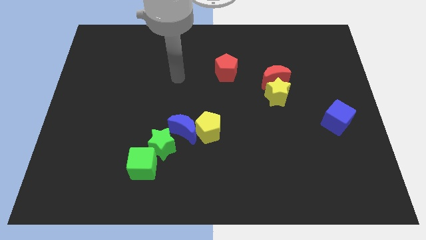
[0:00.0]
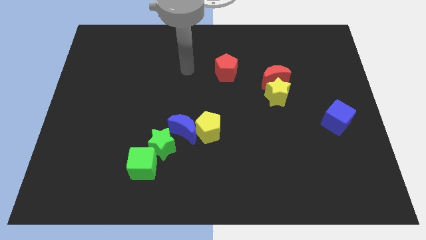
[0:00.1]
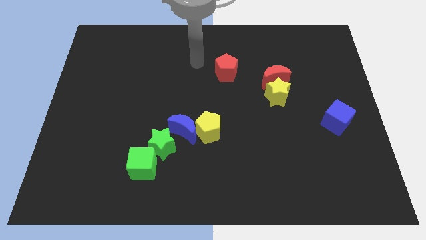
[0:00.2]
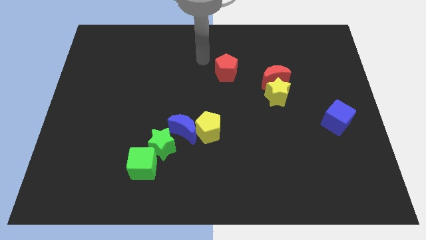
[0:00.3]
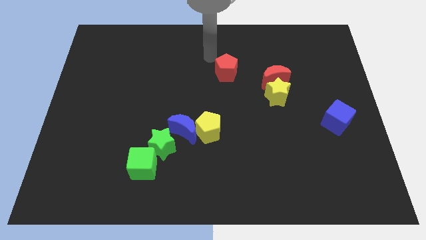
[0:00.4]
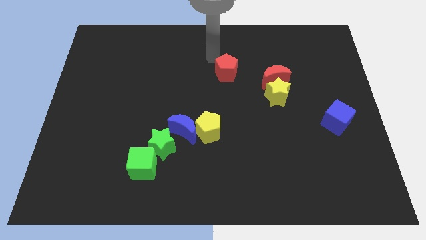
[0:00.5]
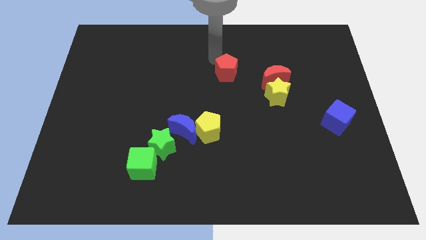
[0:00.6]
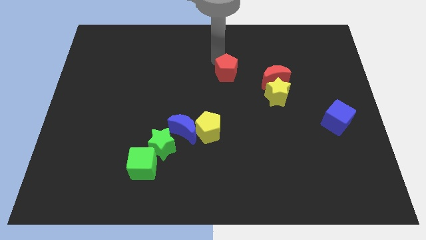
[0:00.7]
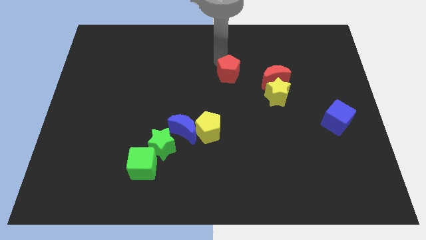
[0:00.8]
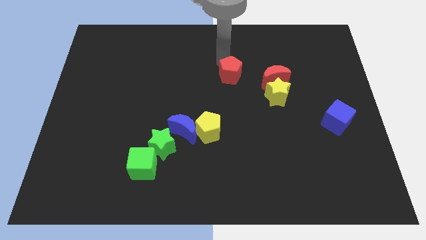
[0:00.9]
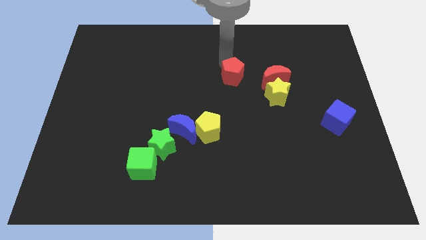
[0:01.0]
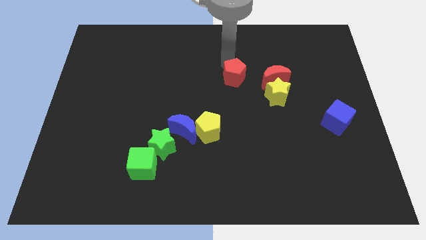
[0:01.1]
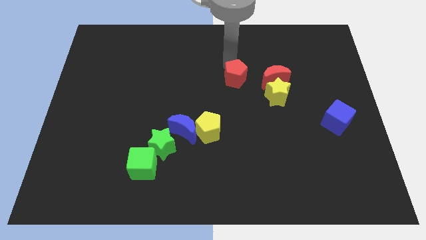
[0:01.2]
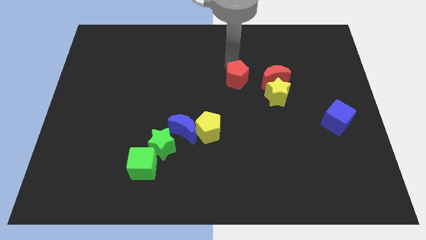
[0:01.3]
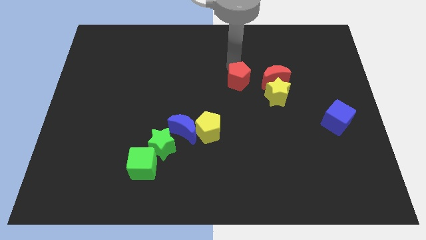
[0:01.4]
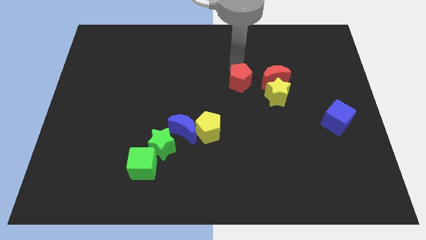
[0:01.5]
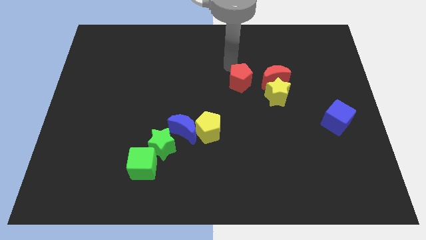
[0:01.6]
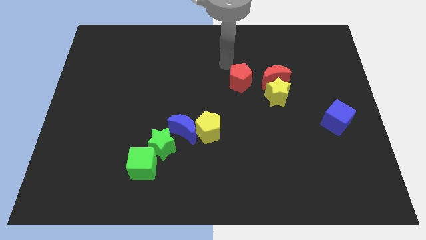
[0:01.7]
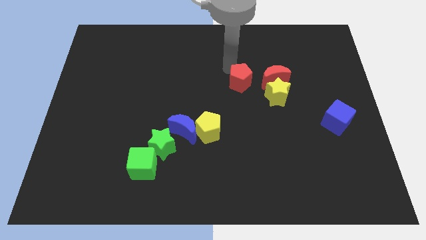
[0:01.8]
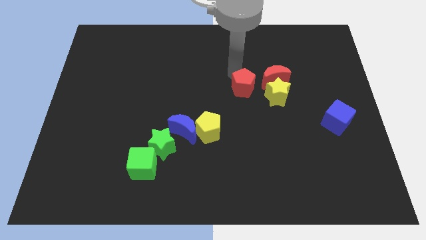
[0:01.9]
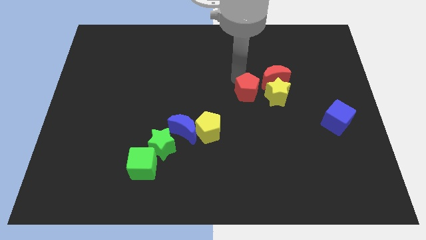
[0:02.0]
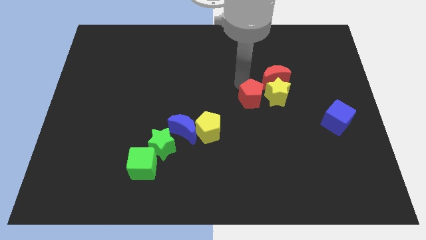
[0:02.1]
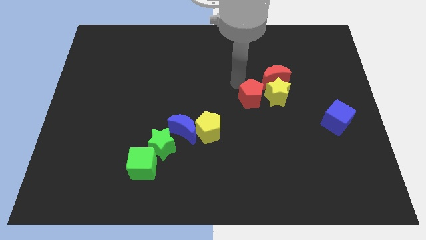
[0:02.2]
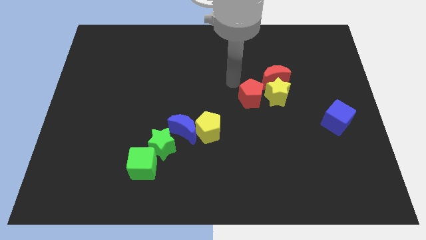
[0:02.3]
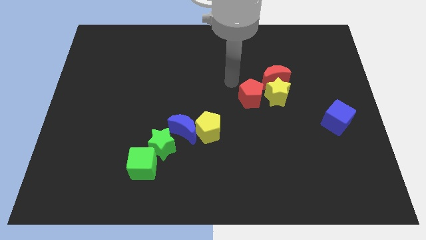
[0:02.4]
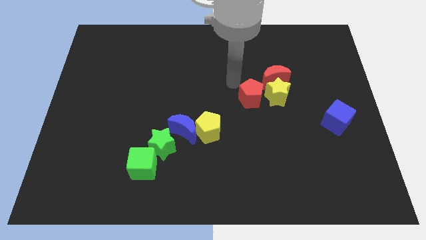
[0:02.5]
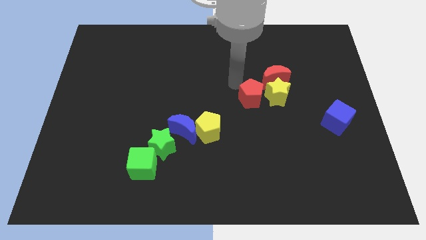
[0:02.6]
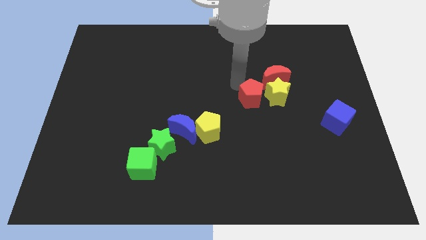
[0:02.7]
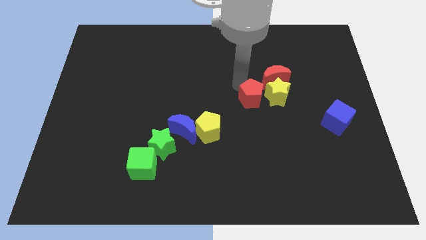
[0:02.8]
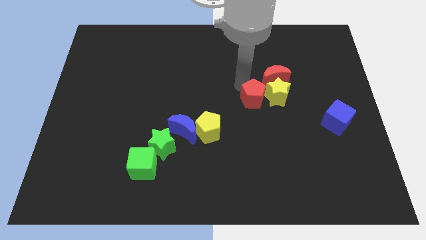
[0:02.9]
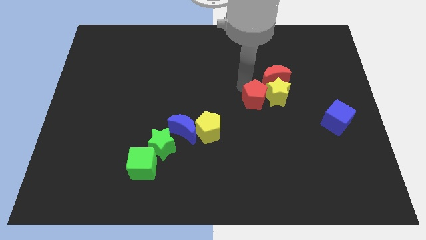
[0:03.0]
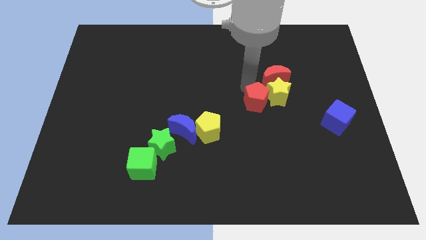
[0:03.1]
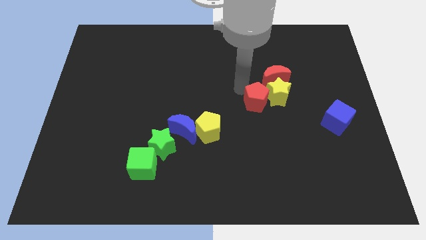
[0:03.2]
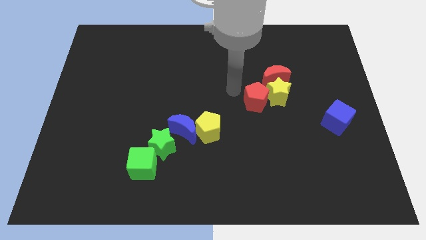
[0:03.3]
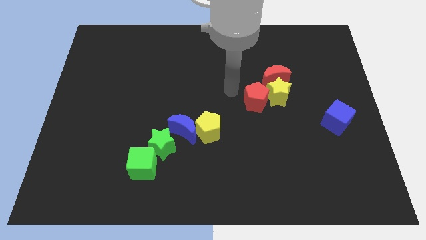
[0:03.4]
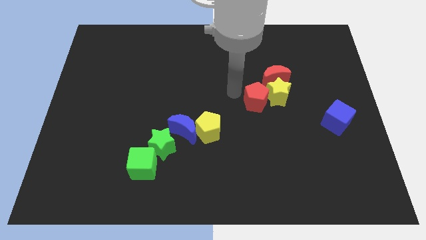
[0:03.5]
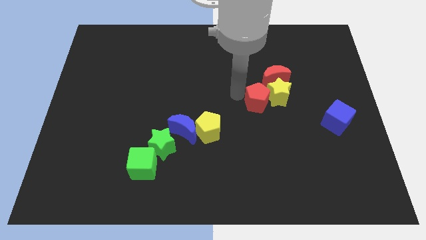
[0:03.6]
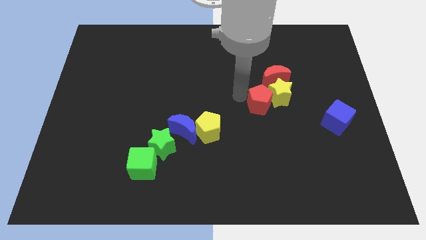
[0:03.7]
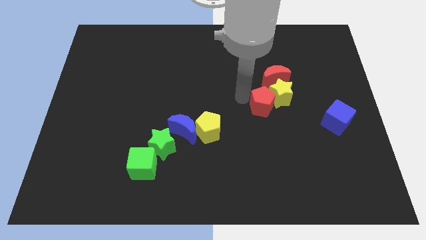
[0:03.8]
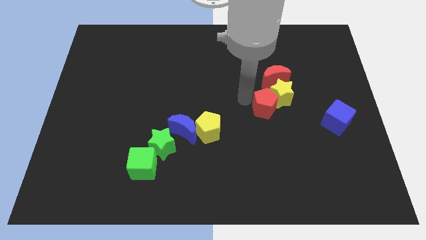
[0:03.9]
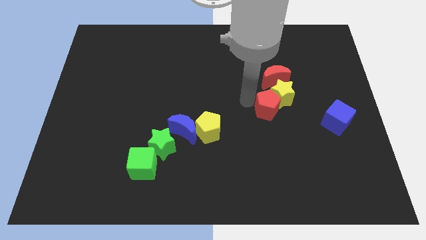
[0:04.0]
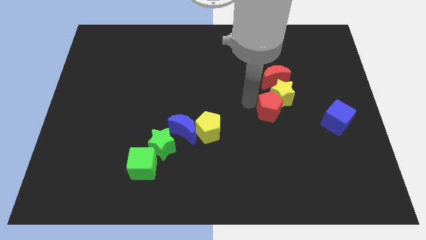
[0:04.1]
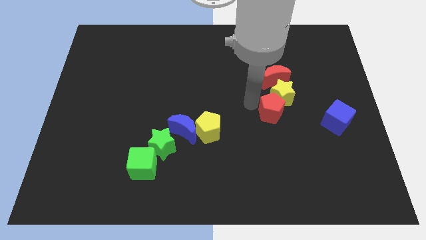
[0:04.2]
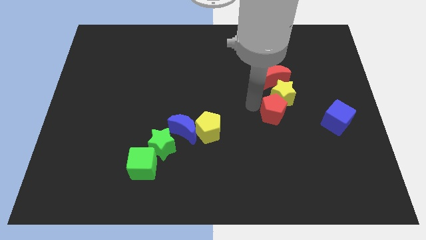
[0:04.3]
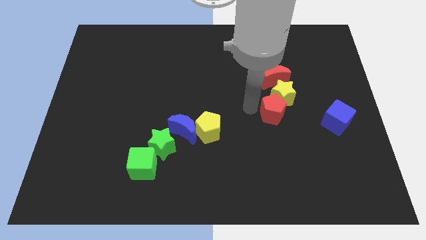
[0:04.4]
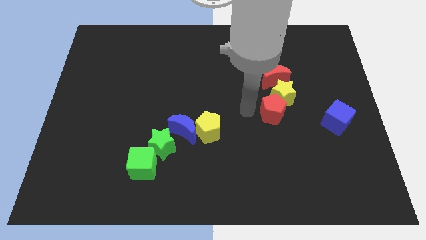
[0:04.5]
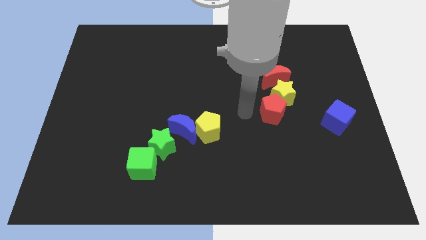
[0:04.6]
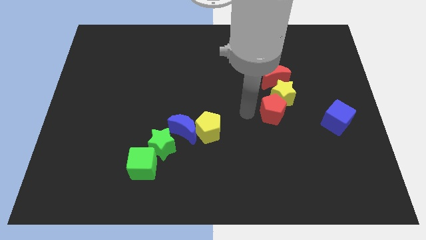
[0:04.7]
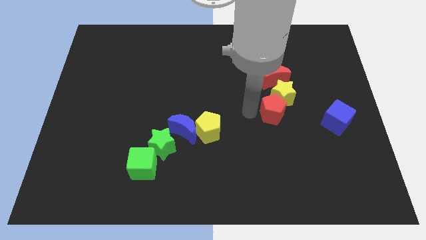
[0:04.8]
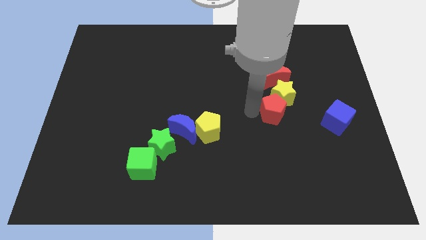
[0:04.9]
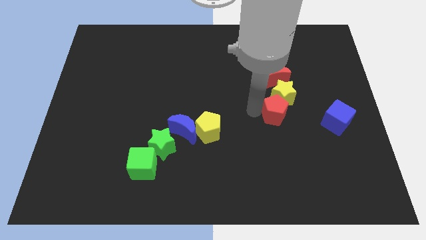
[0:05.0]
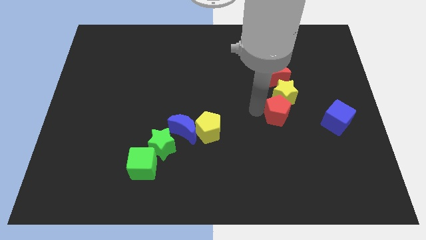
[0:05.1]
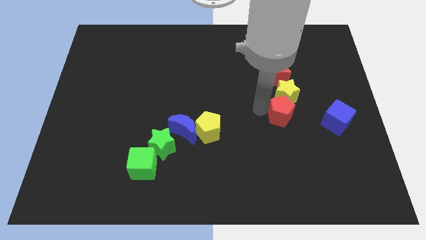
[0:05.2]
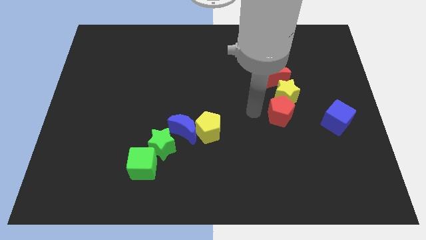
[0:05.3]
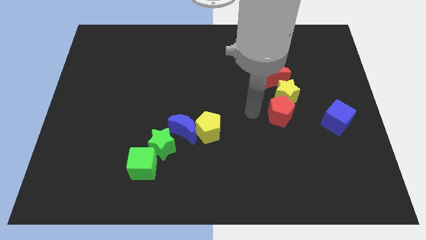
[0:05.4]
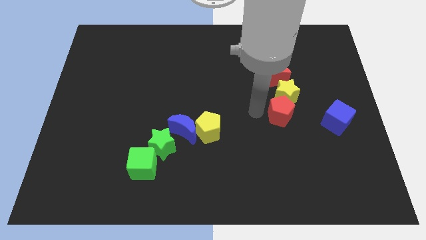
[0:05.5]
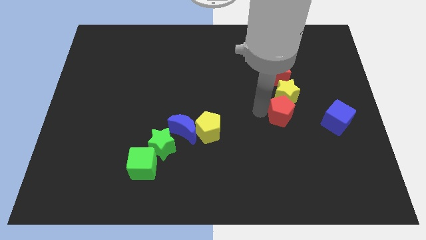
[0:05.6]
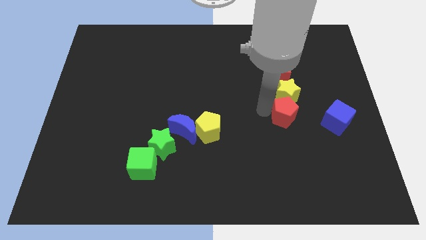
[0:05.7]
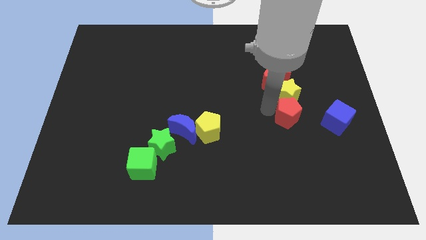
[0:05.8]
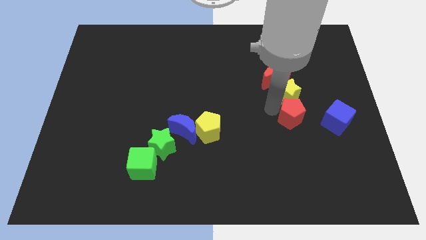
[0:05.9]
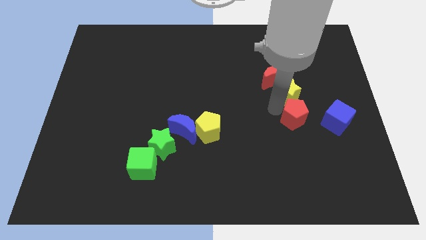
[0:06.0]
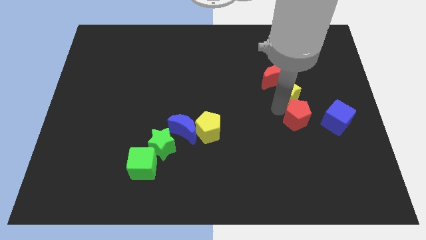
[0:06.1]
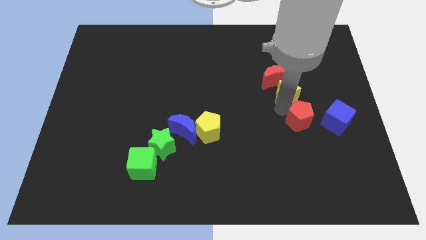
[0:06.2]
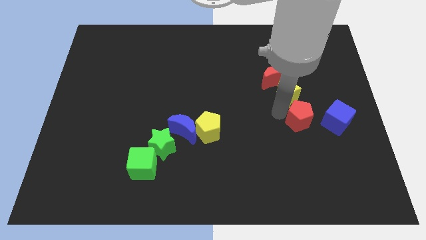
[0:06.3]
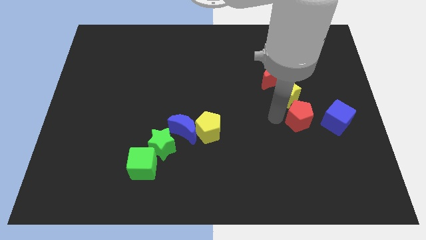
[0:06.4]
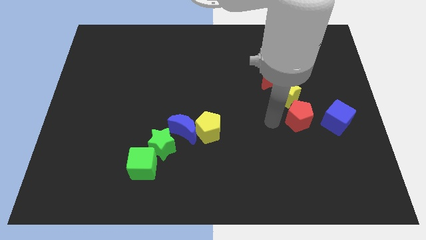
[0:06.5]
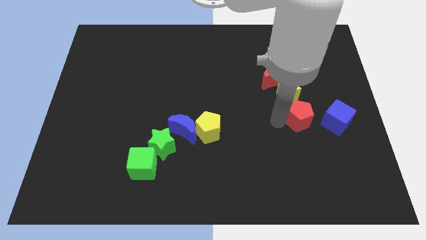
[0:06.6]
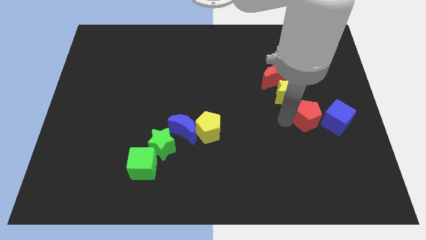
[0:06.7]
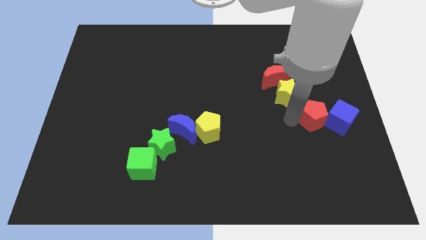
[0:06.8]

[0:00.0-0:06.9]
slide the red pentagon next to the blue cube
